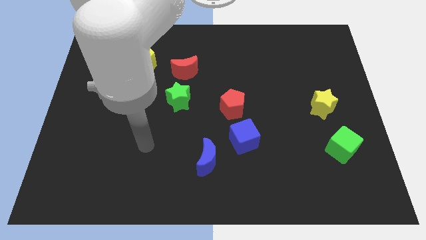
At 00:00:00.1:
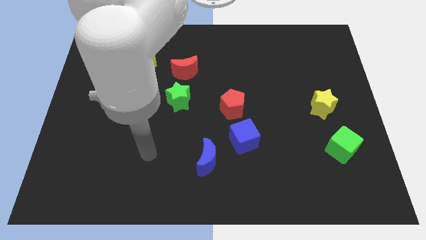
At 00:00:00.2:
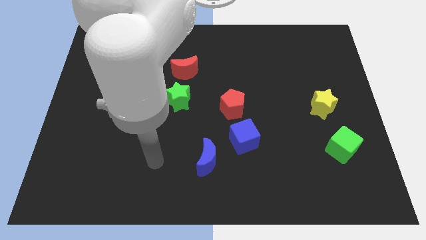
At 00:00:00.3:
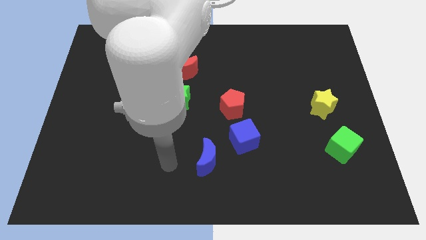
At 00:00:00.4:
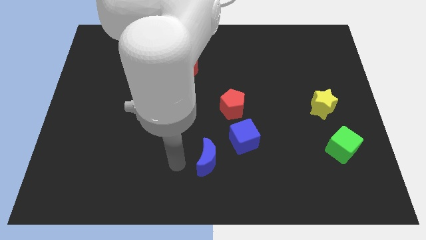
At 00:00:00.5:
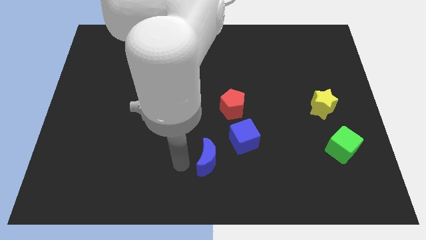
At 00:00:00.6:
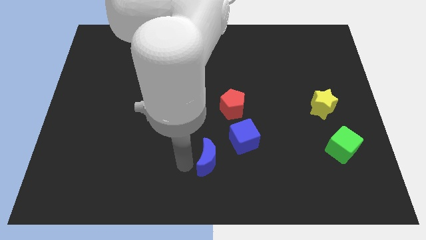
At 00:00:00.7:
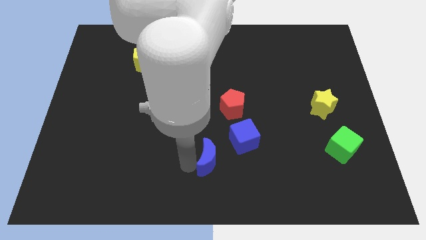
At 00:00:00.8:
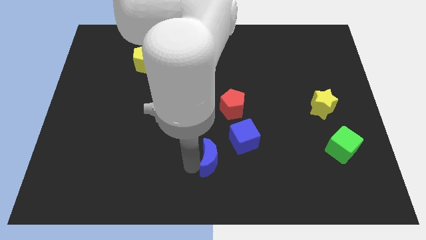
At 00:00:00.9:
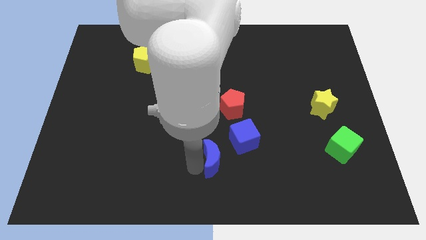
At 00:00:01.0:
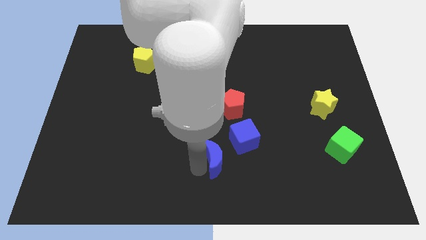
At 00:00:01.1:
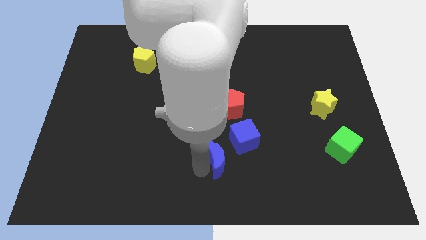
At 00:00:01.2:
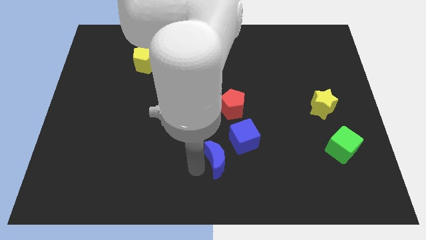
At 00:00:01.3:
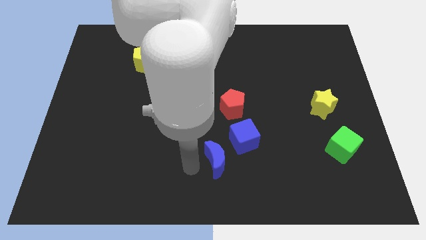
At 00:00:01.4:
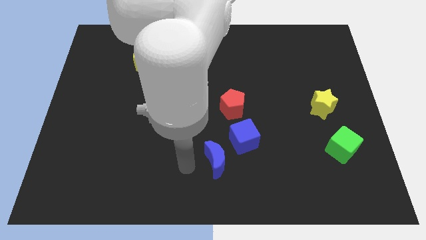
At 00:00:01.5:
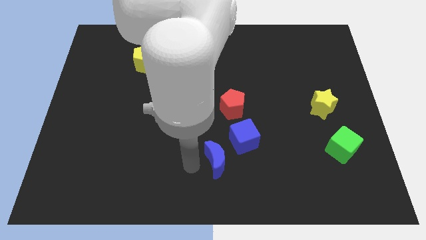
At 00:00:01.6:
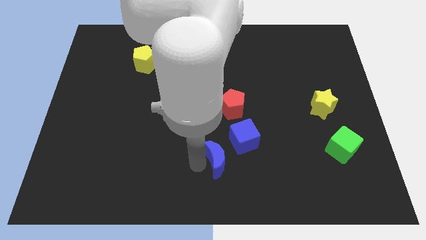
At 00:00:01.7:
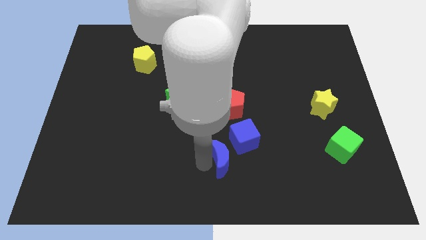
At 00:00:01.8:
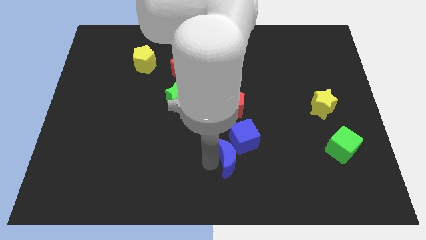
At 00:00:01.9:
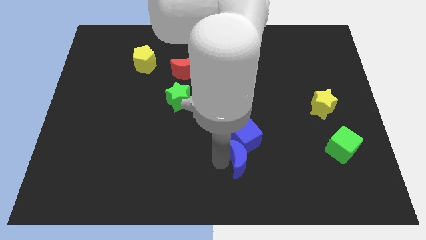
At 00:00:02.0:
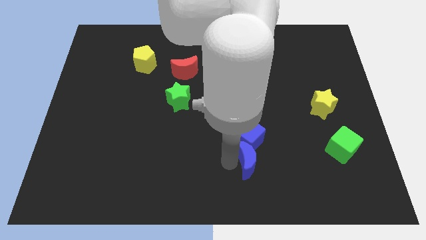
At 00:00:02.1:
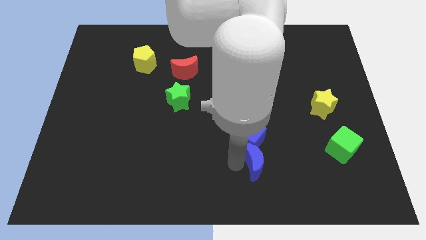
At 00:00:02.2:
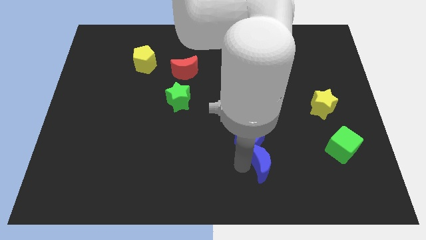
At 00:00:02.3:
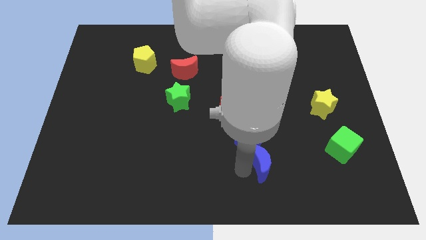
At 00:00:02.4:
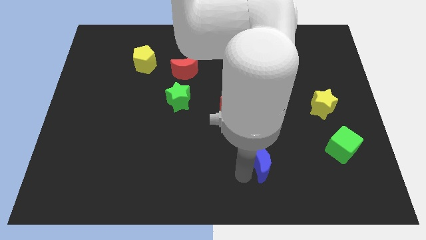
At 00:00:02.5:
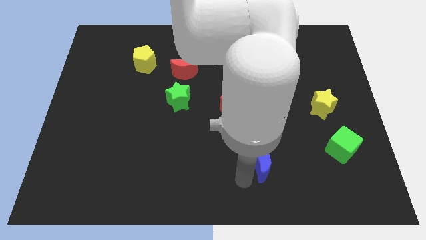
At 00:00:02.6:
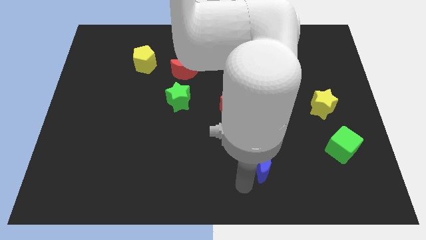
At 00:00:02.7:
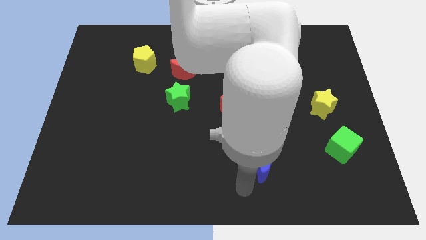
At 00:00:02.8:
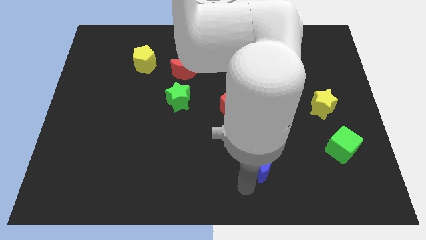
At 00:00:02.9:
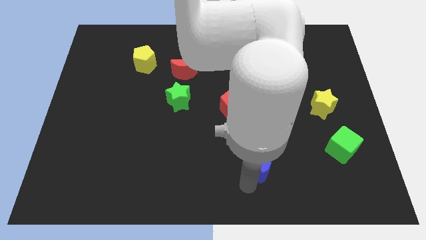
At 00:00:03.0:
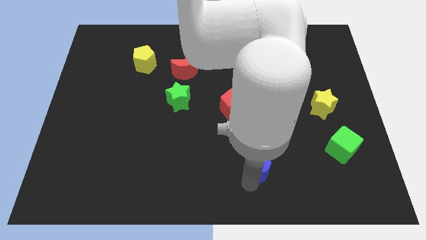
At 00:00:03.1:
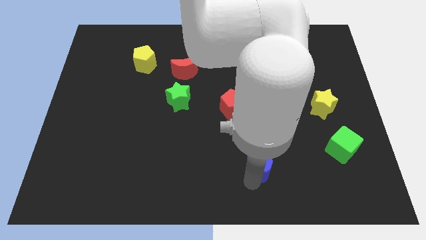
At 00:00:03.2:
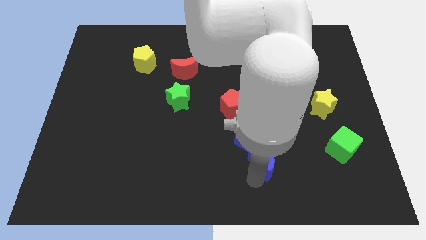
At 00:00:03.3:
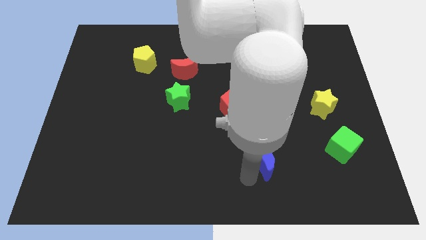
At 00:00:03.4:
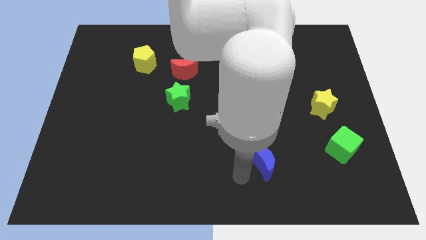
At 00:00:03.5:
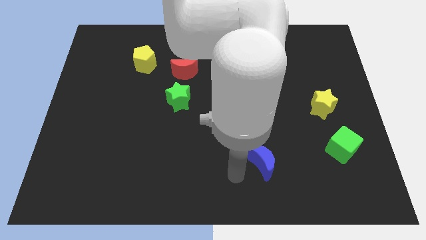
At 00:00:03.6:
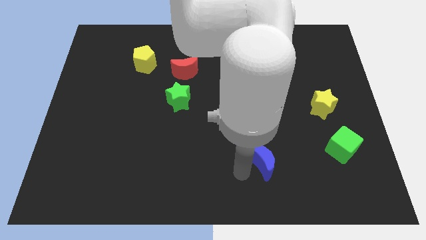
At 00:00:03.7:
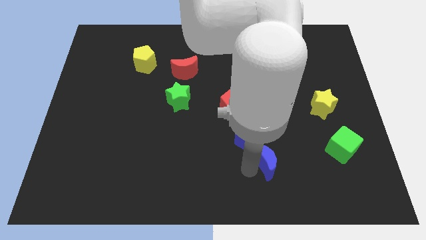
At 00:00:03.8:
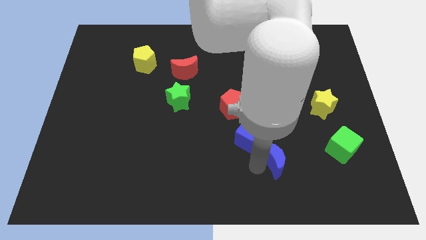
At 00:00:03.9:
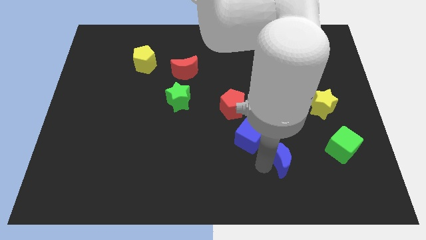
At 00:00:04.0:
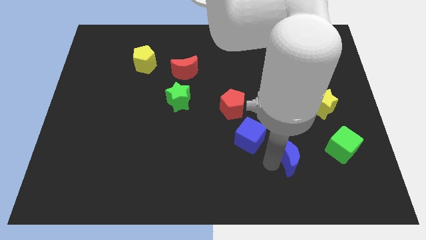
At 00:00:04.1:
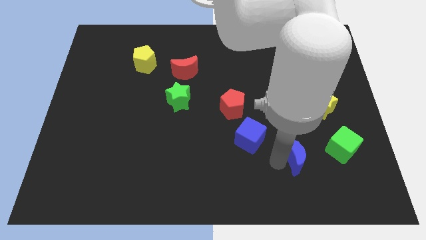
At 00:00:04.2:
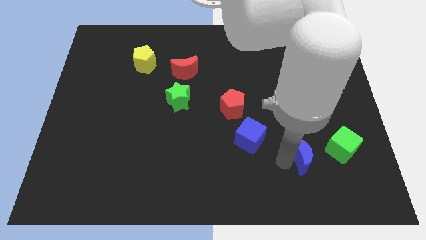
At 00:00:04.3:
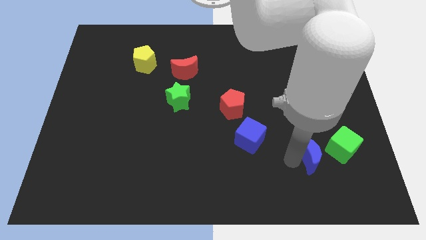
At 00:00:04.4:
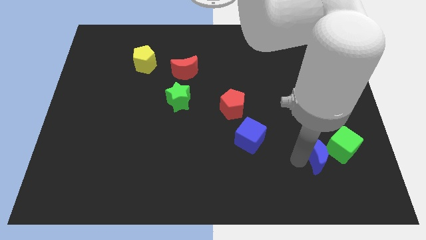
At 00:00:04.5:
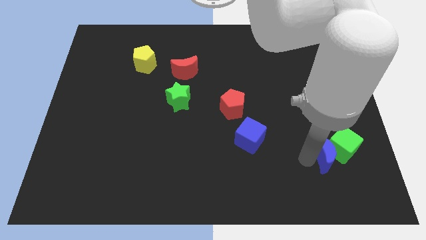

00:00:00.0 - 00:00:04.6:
slide the blue moon next to the green cube

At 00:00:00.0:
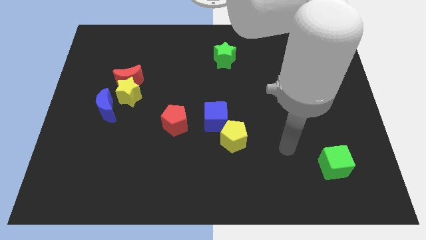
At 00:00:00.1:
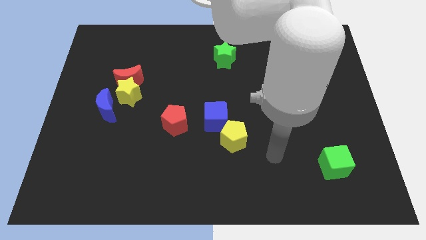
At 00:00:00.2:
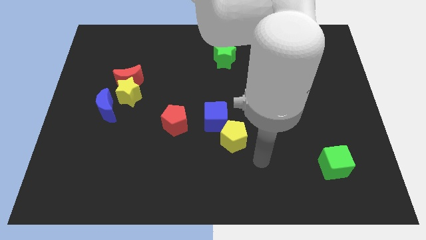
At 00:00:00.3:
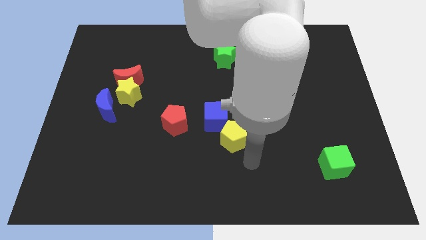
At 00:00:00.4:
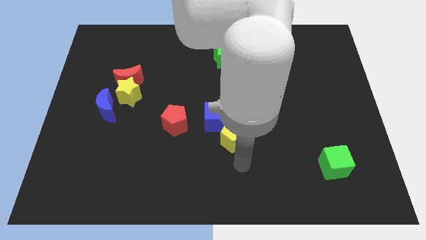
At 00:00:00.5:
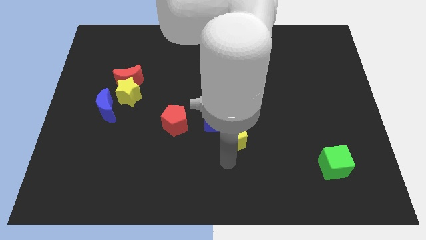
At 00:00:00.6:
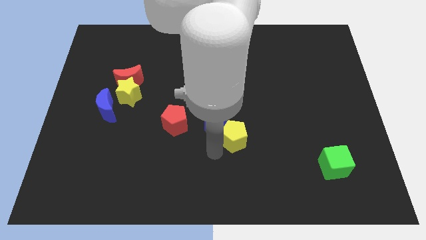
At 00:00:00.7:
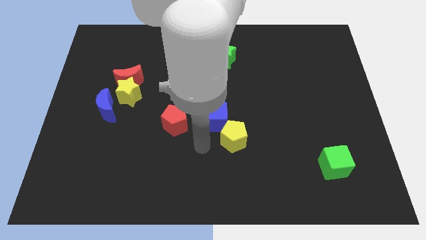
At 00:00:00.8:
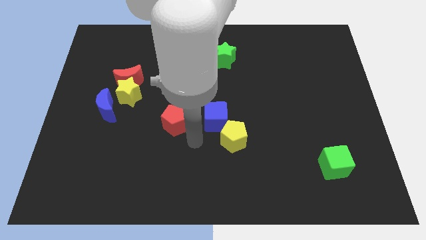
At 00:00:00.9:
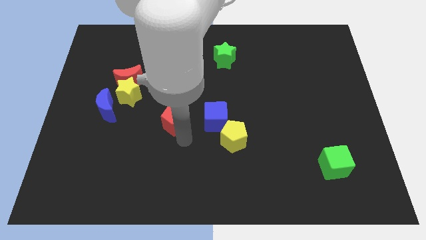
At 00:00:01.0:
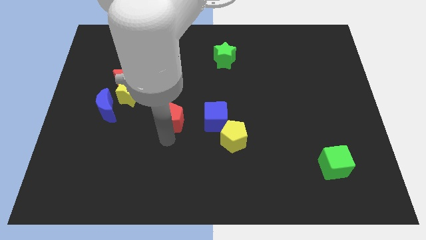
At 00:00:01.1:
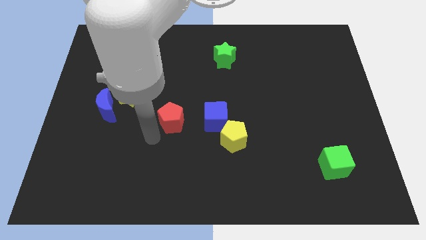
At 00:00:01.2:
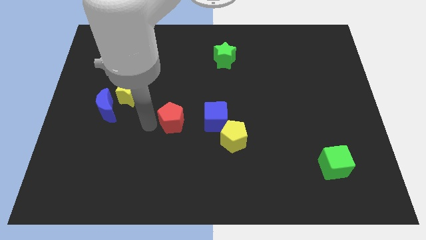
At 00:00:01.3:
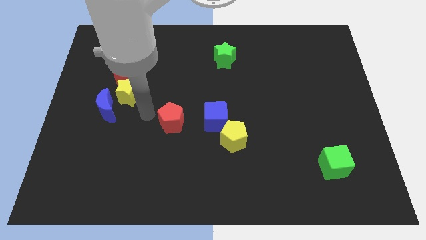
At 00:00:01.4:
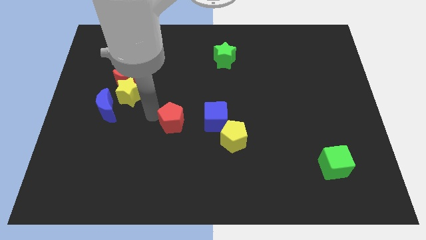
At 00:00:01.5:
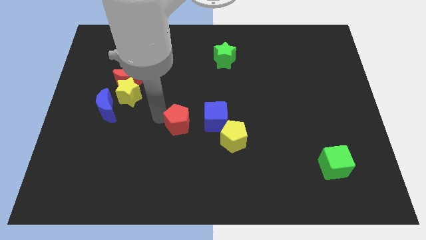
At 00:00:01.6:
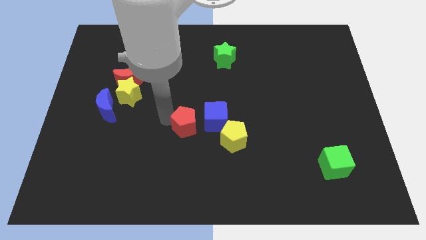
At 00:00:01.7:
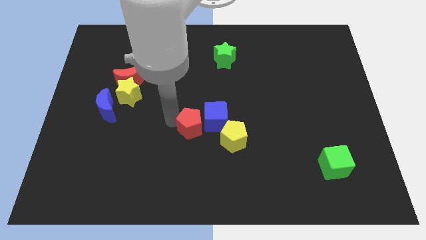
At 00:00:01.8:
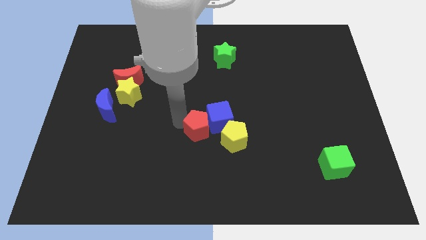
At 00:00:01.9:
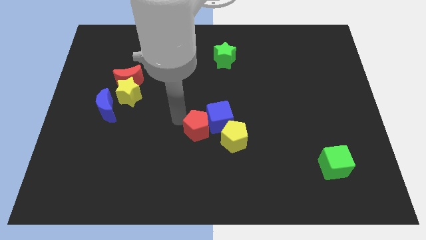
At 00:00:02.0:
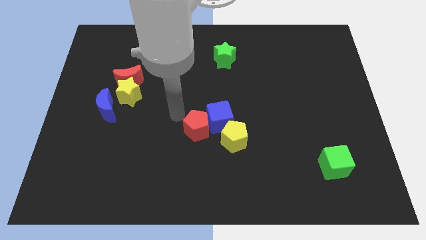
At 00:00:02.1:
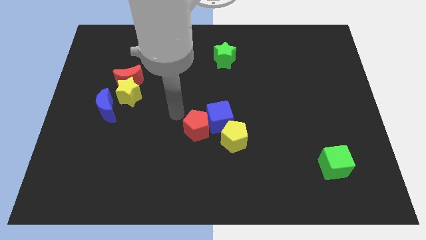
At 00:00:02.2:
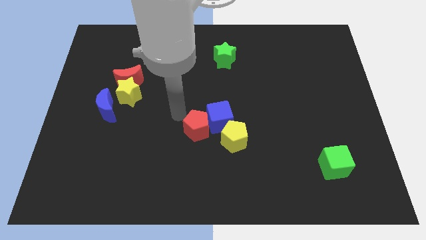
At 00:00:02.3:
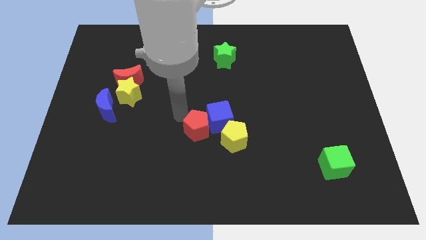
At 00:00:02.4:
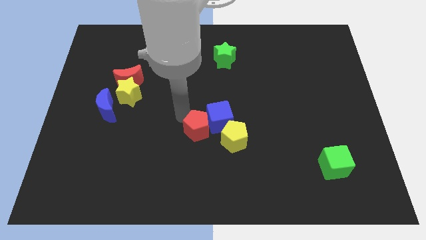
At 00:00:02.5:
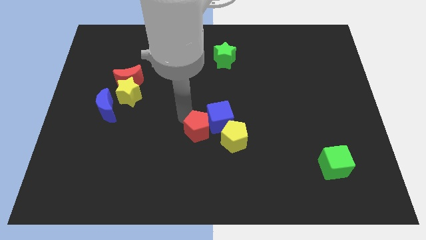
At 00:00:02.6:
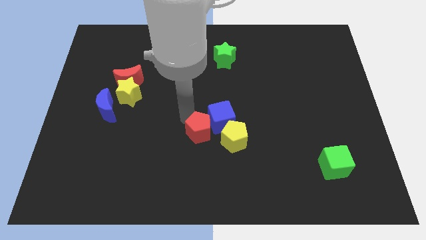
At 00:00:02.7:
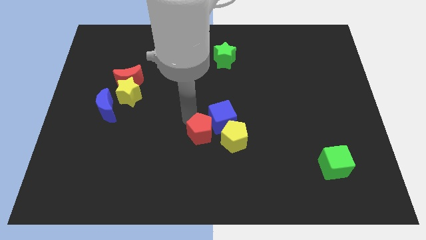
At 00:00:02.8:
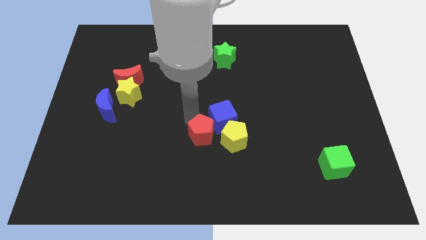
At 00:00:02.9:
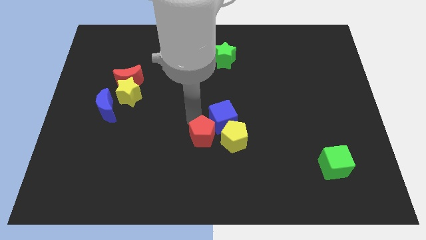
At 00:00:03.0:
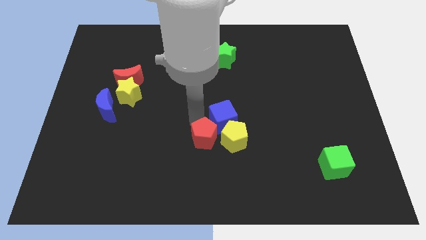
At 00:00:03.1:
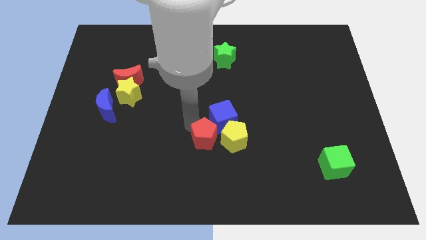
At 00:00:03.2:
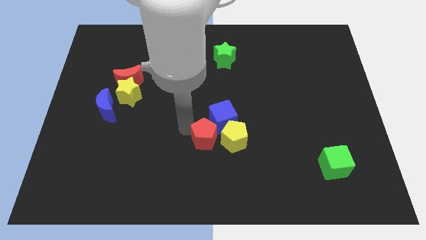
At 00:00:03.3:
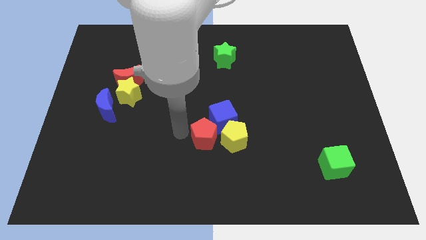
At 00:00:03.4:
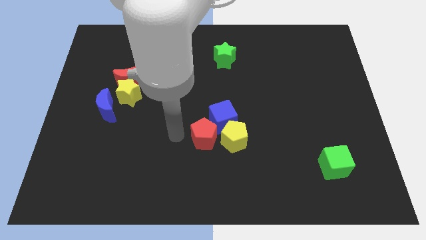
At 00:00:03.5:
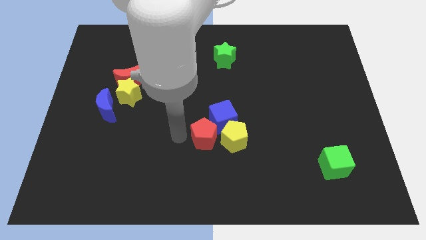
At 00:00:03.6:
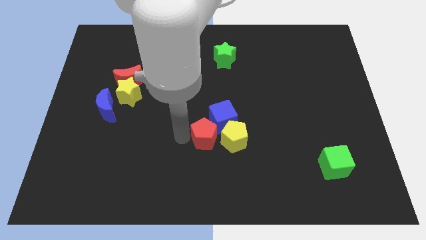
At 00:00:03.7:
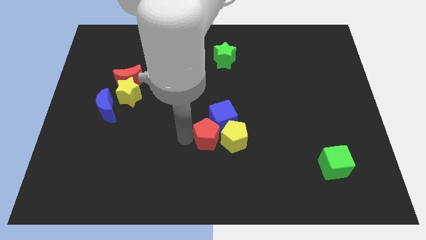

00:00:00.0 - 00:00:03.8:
slide the red pentagon next to the yellow pentagon
